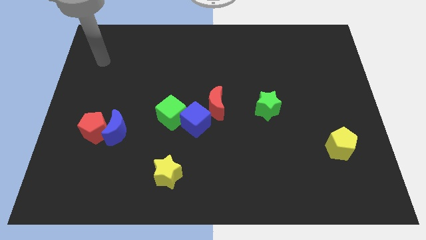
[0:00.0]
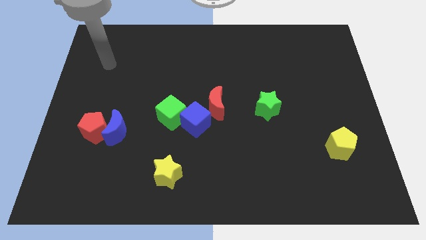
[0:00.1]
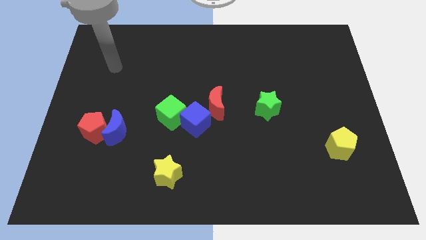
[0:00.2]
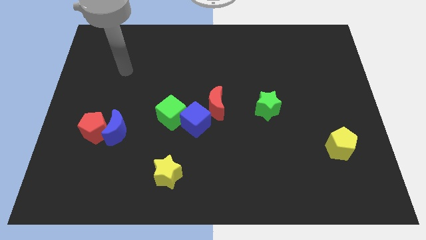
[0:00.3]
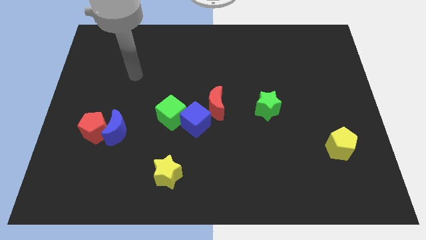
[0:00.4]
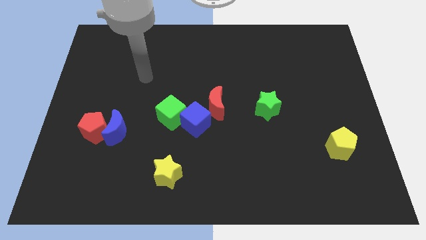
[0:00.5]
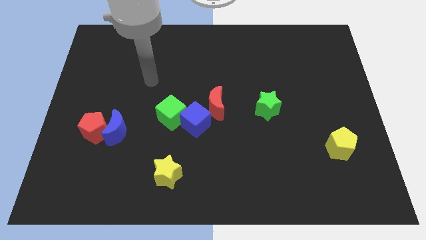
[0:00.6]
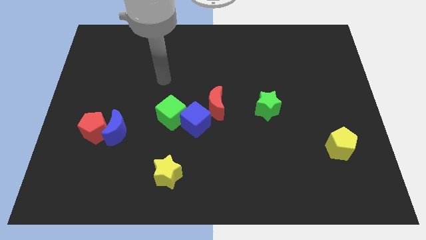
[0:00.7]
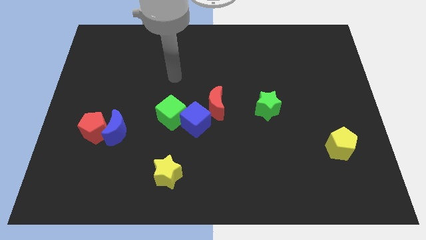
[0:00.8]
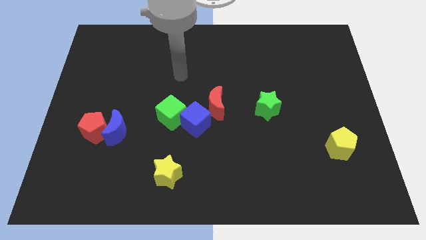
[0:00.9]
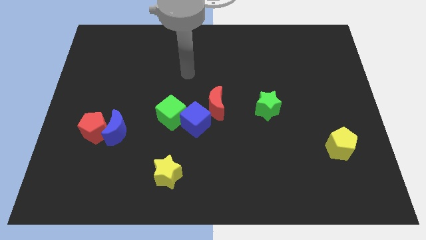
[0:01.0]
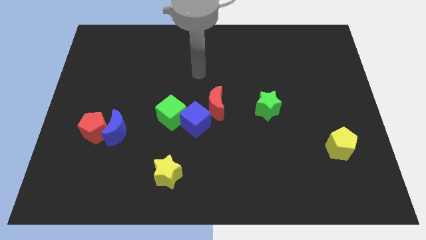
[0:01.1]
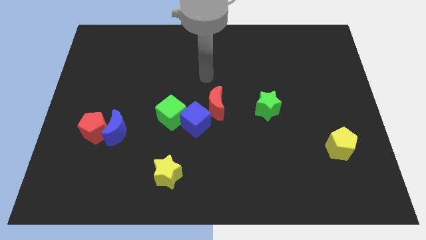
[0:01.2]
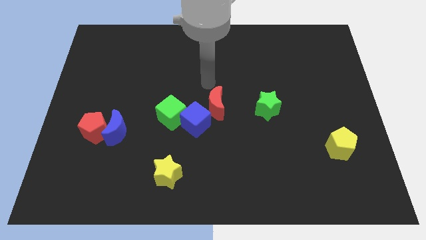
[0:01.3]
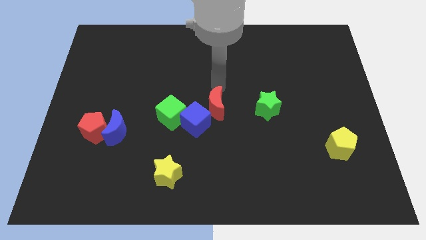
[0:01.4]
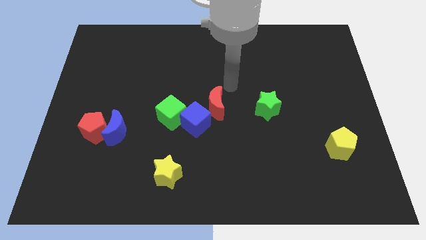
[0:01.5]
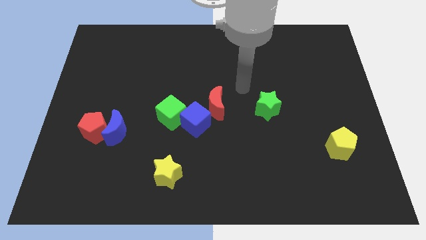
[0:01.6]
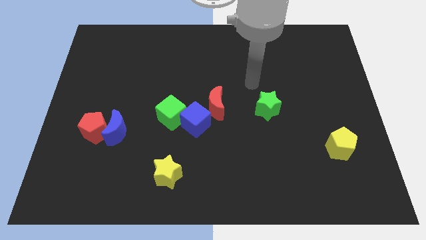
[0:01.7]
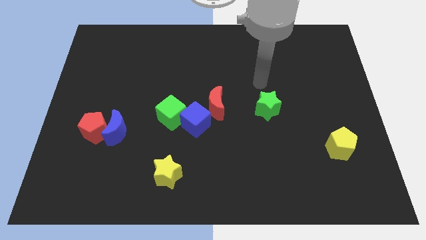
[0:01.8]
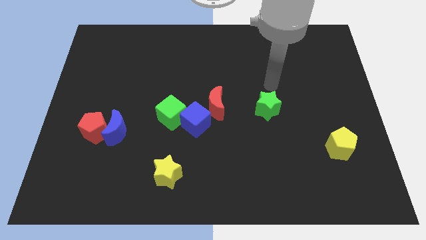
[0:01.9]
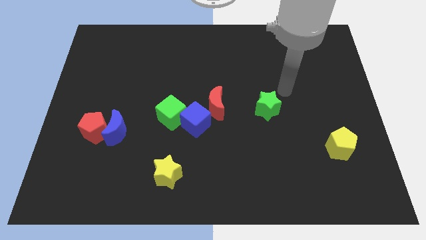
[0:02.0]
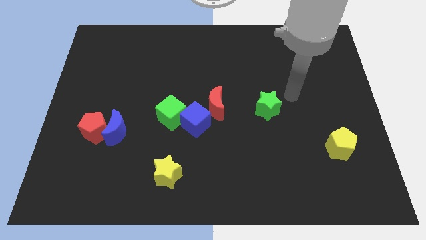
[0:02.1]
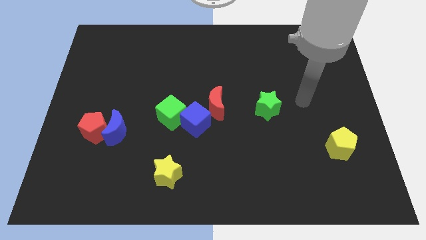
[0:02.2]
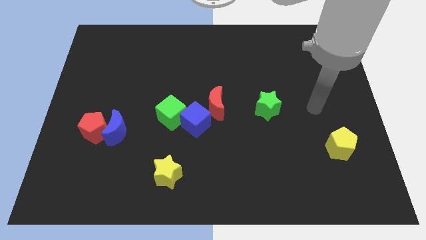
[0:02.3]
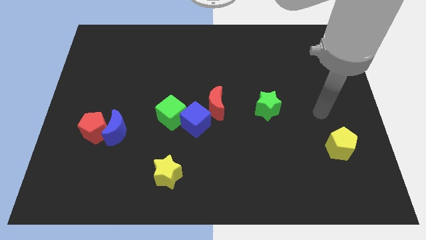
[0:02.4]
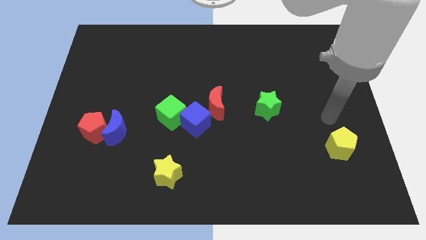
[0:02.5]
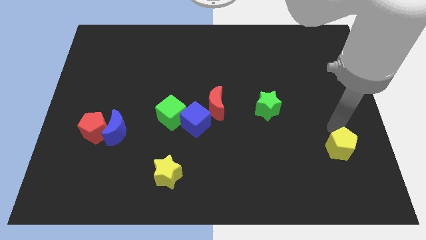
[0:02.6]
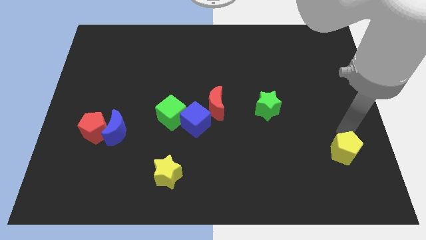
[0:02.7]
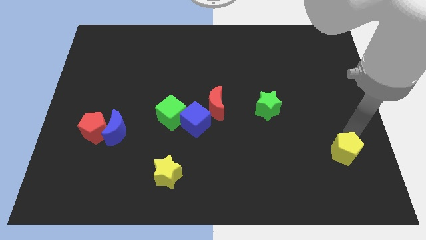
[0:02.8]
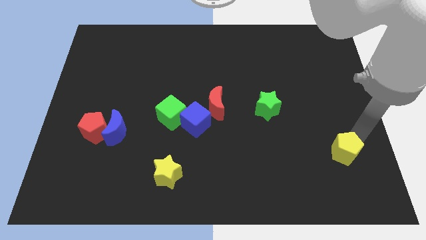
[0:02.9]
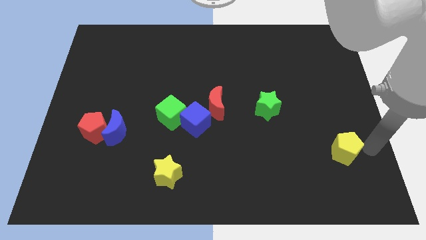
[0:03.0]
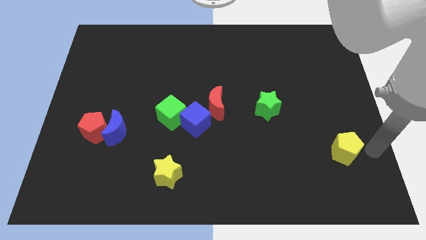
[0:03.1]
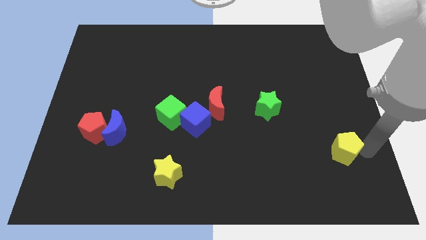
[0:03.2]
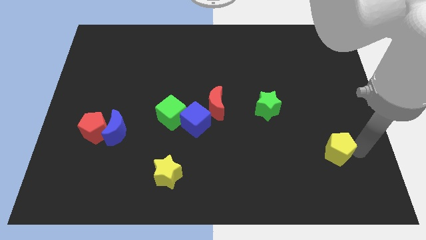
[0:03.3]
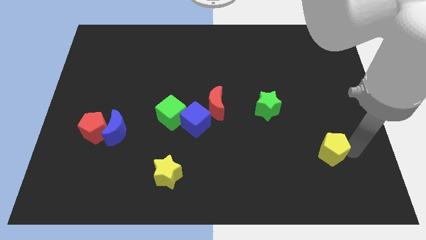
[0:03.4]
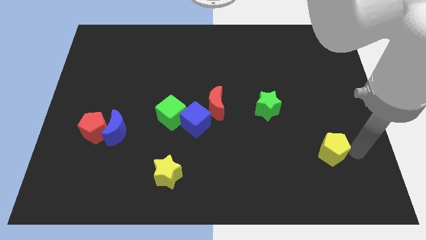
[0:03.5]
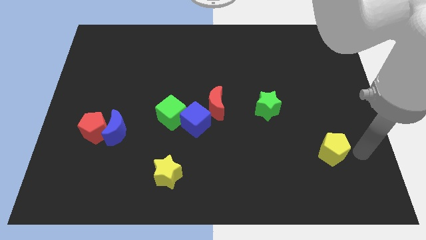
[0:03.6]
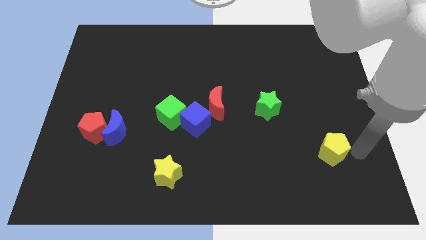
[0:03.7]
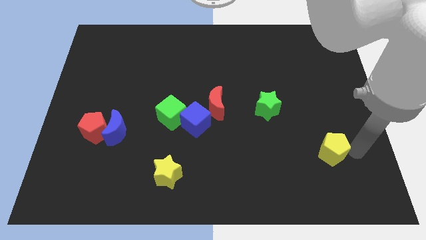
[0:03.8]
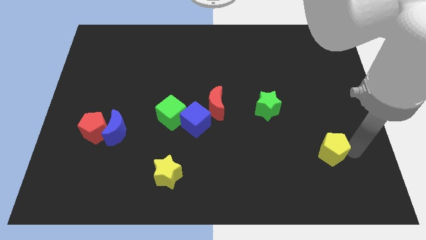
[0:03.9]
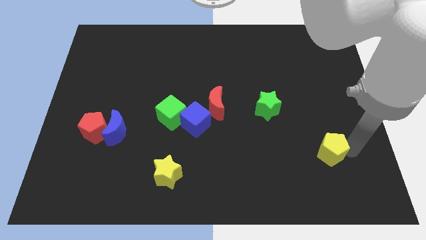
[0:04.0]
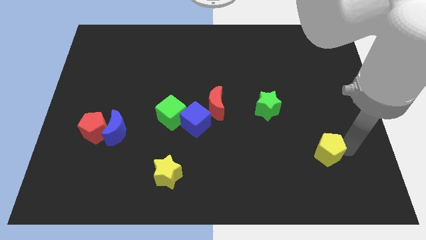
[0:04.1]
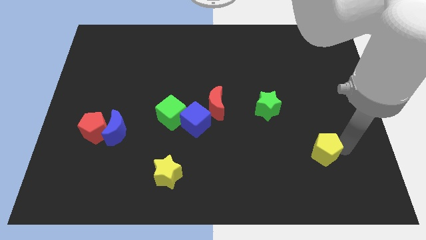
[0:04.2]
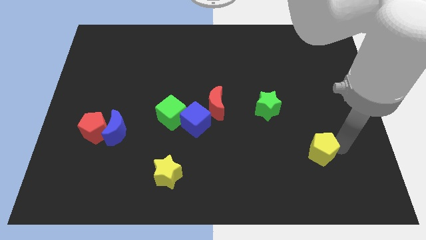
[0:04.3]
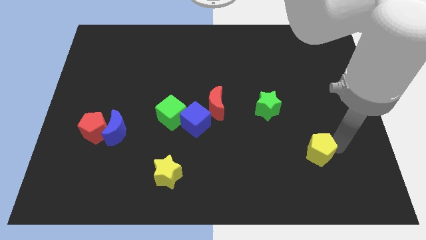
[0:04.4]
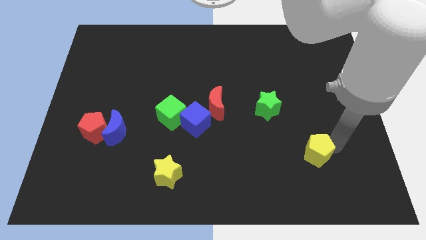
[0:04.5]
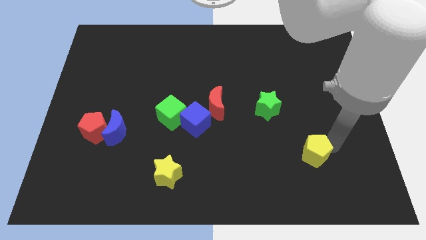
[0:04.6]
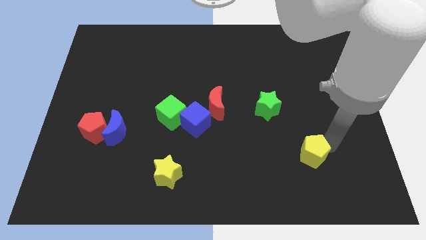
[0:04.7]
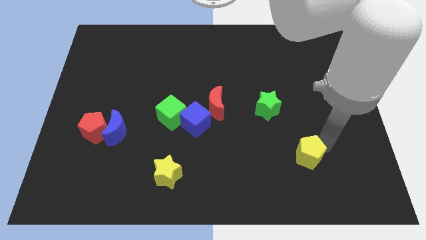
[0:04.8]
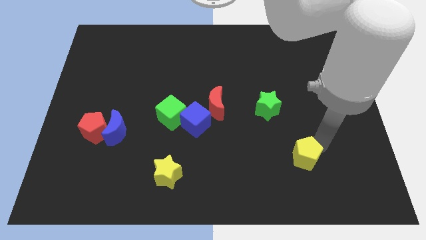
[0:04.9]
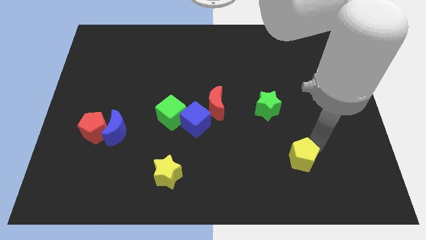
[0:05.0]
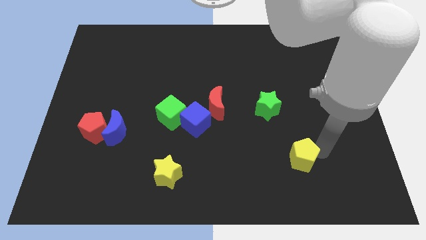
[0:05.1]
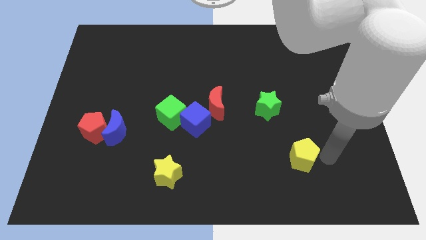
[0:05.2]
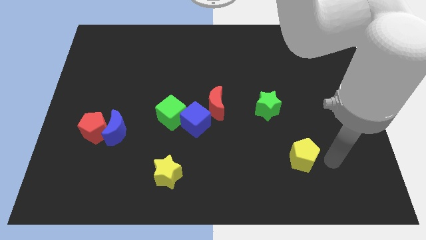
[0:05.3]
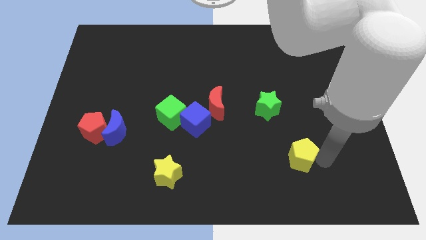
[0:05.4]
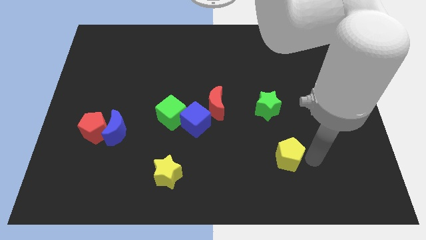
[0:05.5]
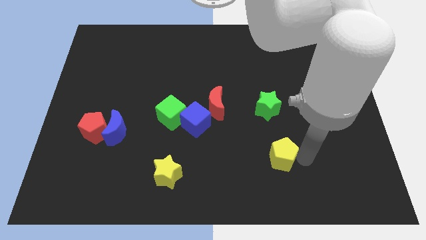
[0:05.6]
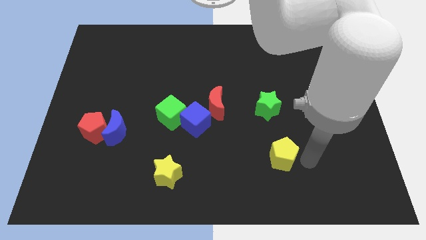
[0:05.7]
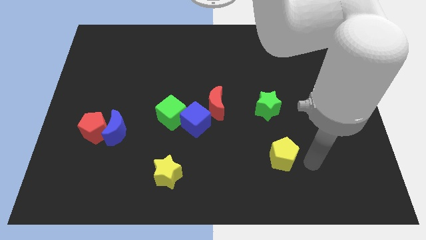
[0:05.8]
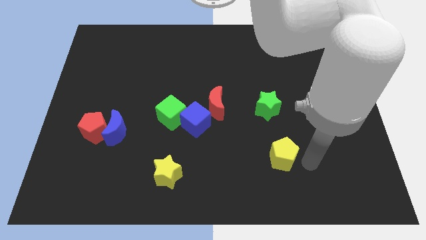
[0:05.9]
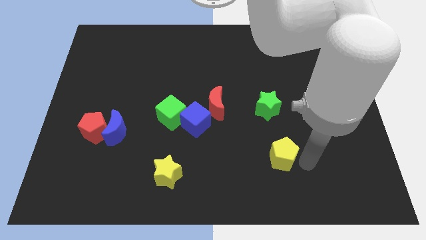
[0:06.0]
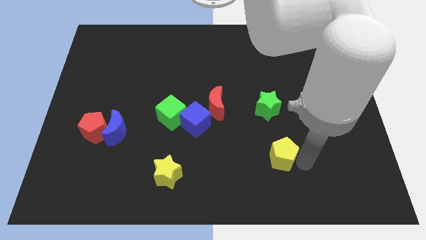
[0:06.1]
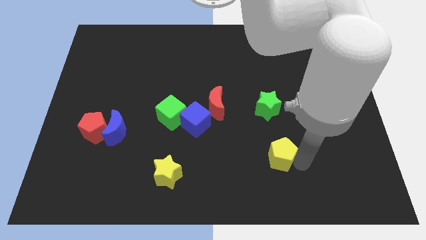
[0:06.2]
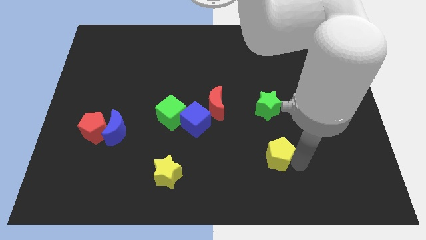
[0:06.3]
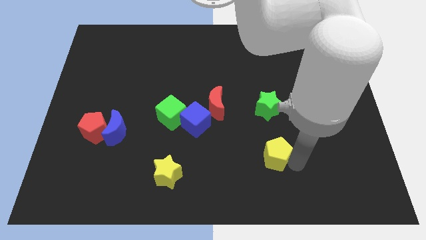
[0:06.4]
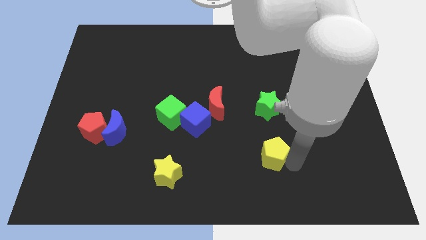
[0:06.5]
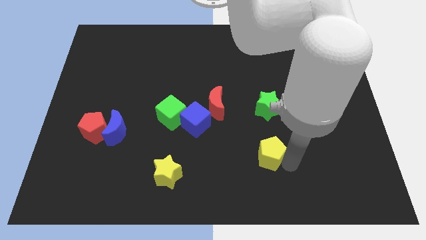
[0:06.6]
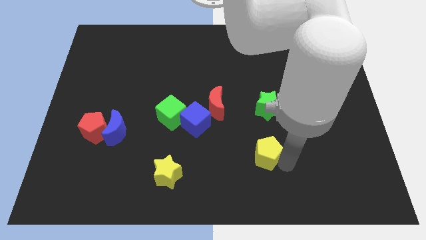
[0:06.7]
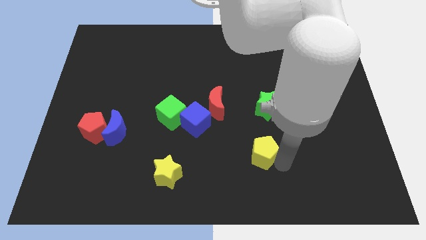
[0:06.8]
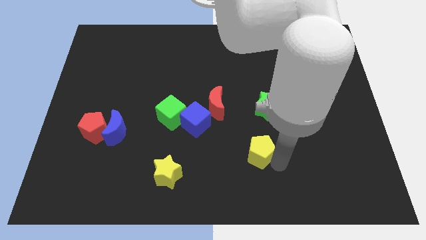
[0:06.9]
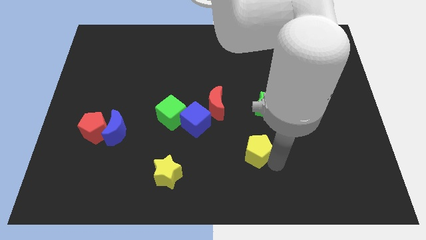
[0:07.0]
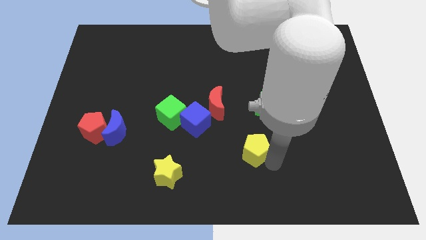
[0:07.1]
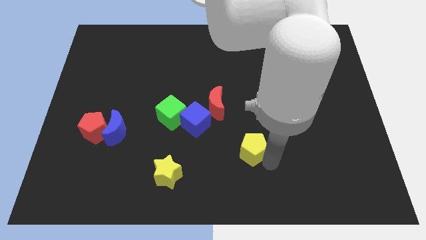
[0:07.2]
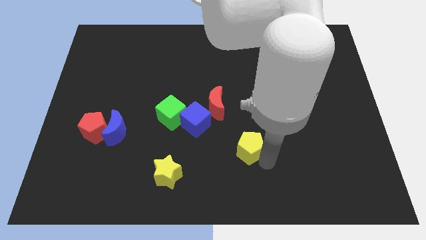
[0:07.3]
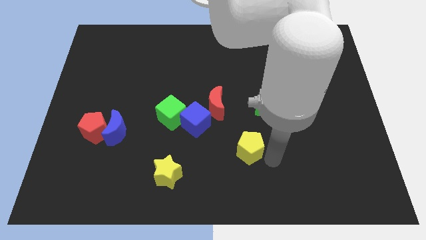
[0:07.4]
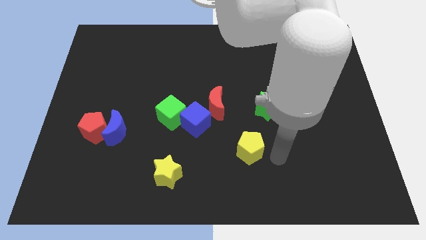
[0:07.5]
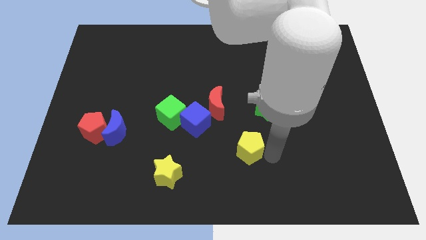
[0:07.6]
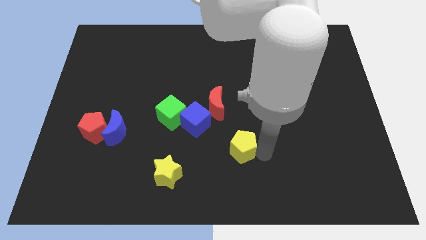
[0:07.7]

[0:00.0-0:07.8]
slide the yellow pentagon to the bottom right of the blue cube
